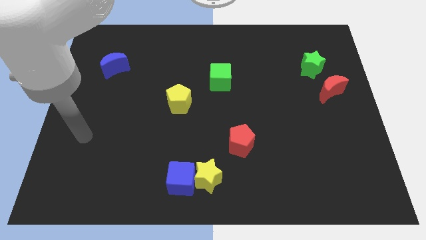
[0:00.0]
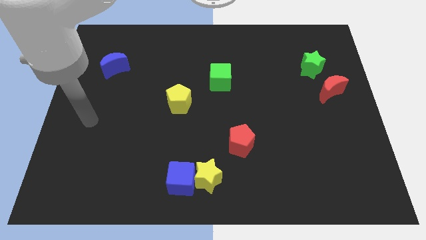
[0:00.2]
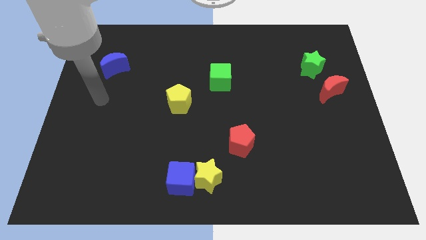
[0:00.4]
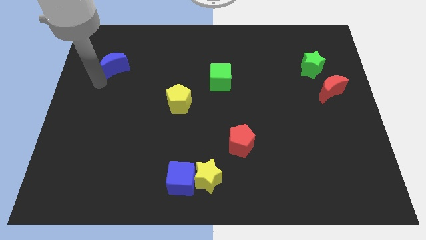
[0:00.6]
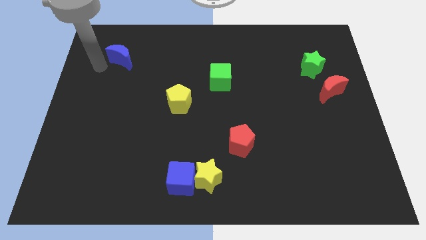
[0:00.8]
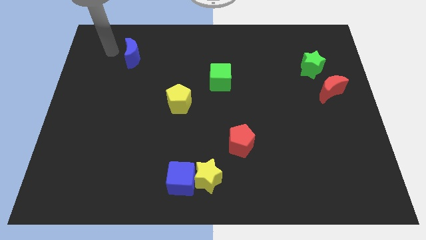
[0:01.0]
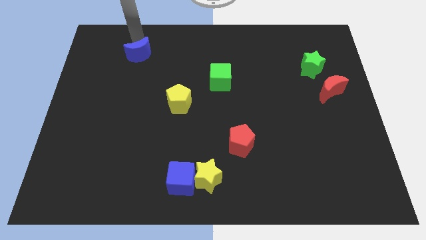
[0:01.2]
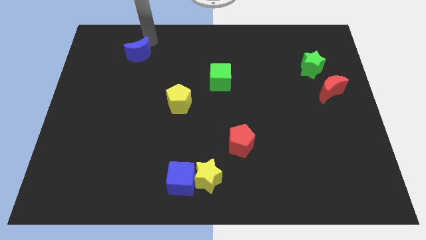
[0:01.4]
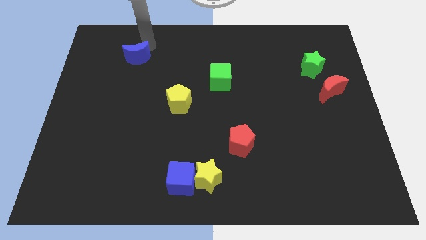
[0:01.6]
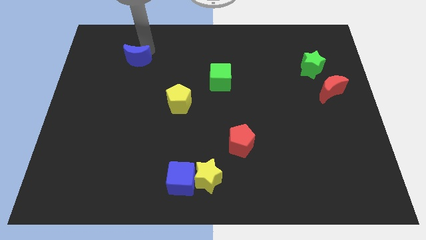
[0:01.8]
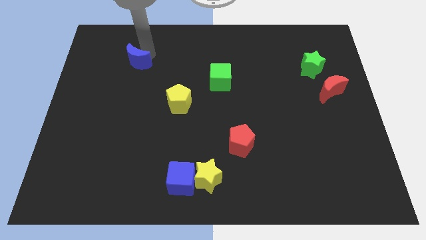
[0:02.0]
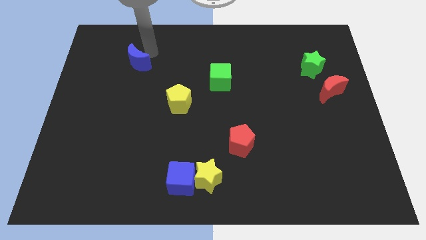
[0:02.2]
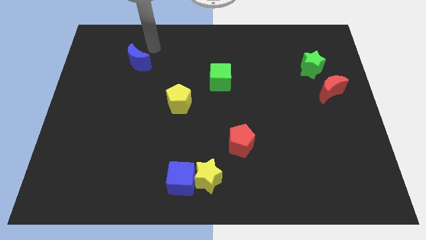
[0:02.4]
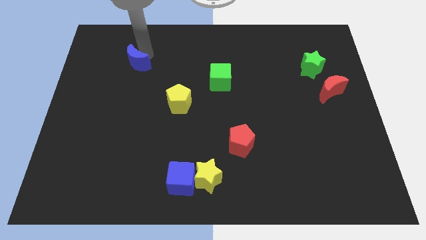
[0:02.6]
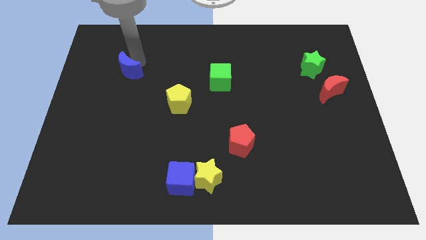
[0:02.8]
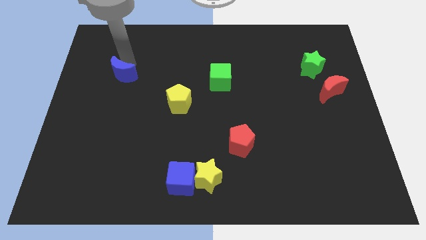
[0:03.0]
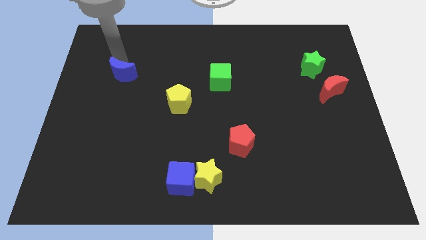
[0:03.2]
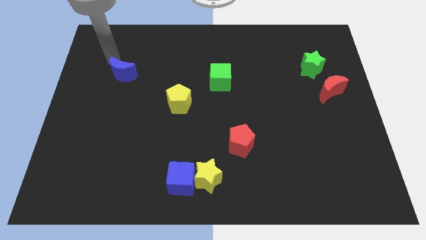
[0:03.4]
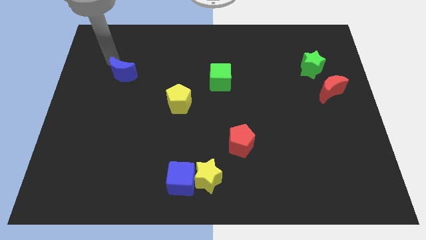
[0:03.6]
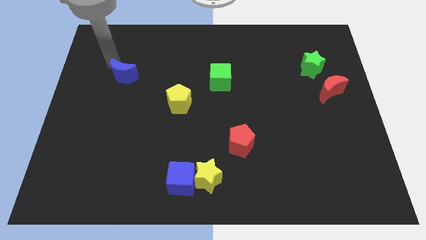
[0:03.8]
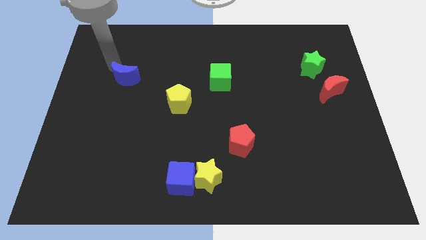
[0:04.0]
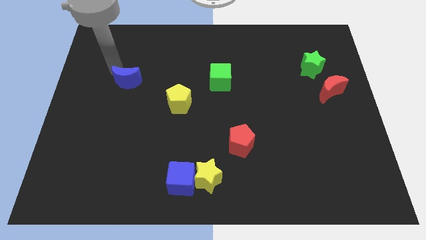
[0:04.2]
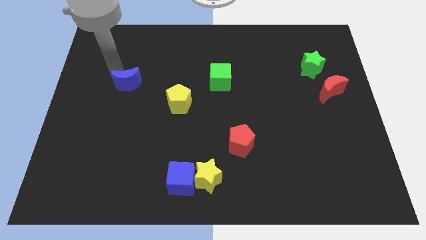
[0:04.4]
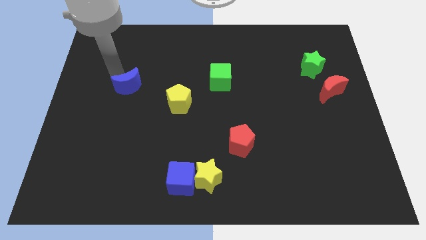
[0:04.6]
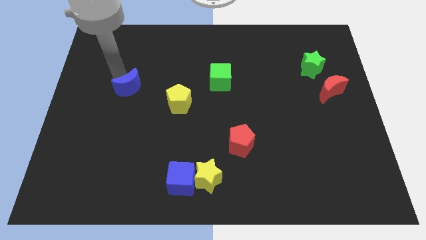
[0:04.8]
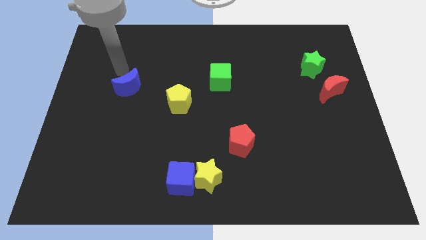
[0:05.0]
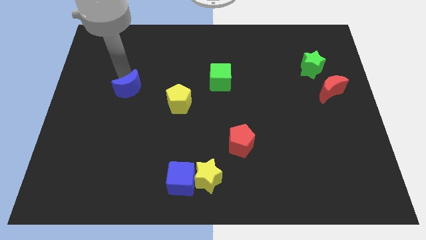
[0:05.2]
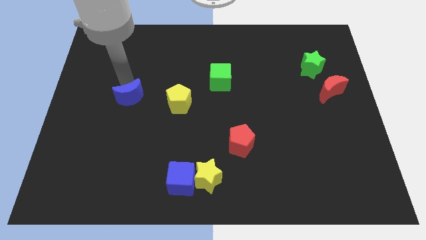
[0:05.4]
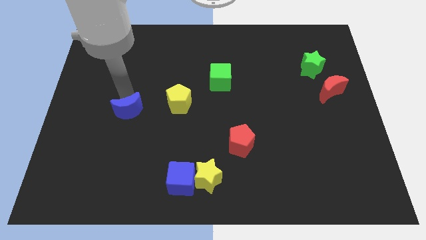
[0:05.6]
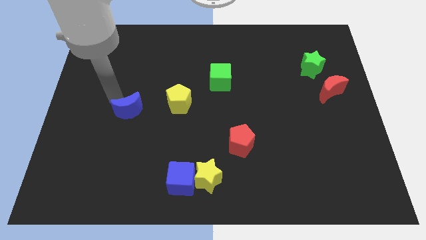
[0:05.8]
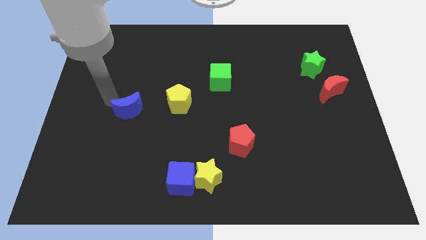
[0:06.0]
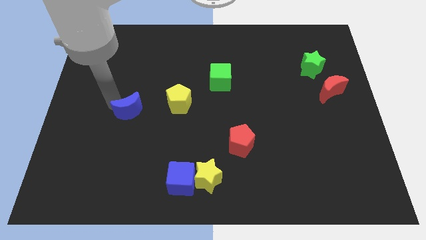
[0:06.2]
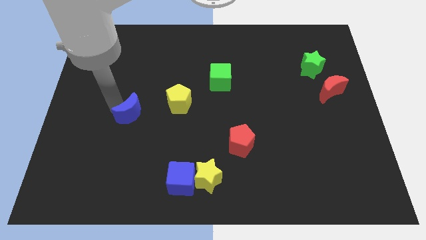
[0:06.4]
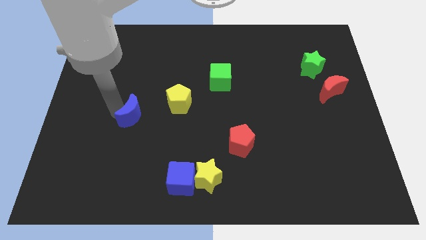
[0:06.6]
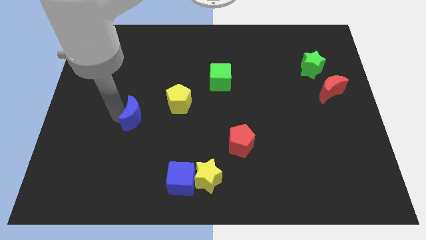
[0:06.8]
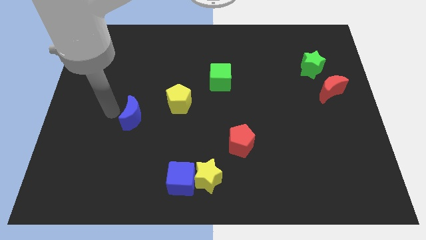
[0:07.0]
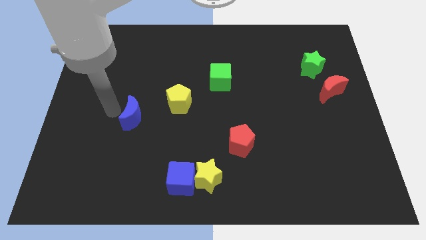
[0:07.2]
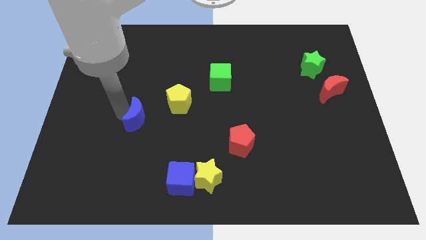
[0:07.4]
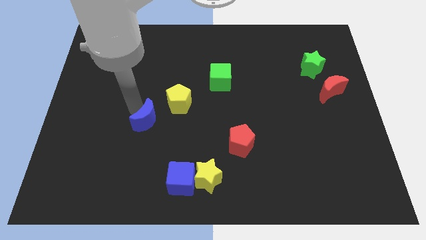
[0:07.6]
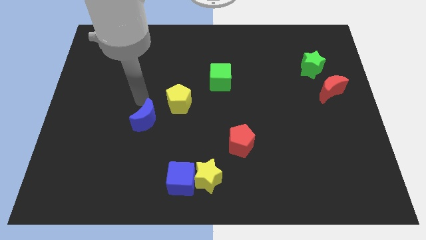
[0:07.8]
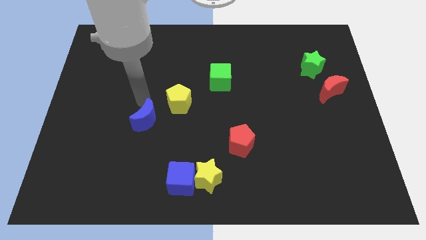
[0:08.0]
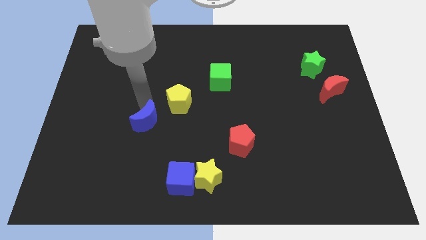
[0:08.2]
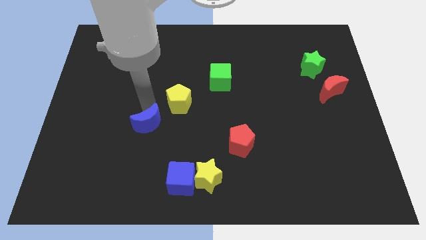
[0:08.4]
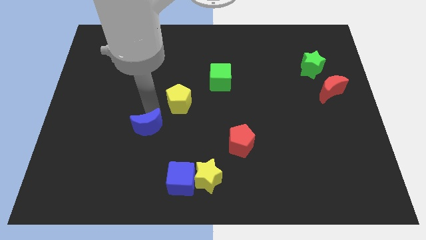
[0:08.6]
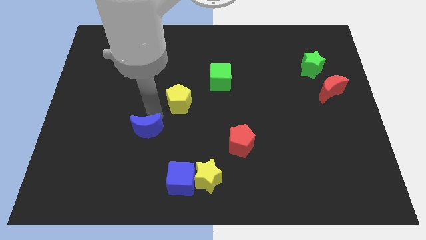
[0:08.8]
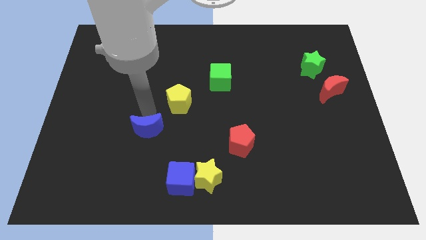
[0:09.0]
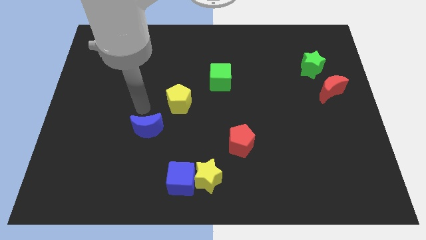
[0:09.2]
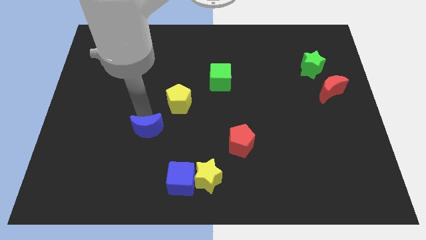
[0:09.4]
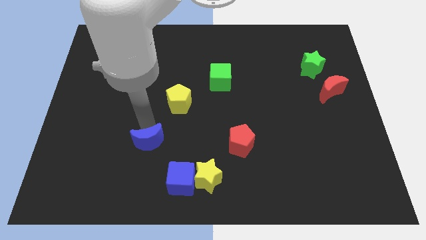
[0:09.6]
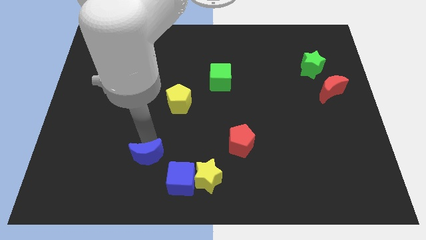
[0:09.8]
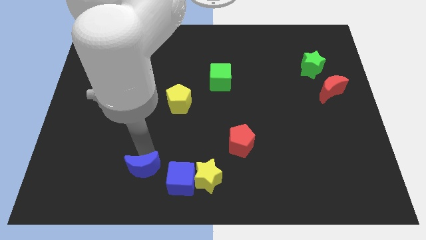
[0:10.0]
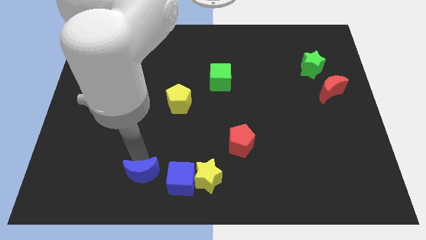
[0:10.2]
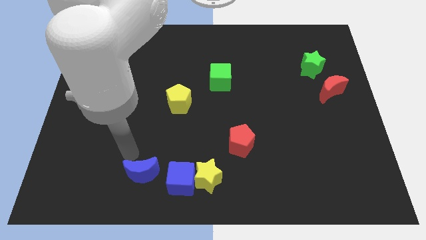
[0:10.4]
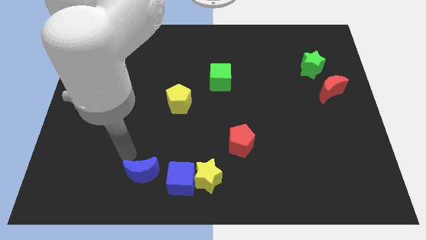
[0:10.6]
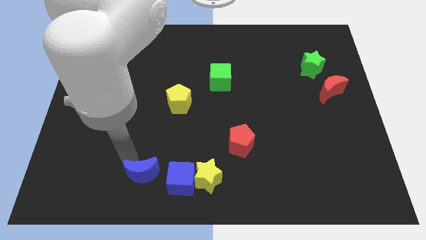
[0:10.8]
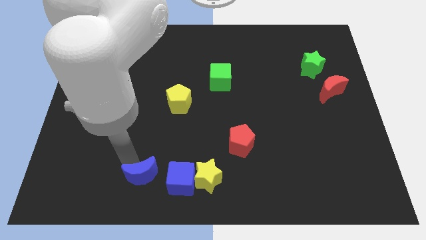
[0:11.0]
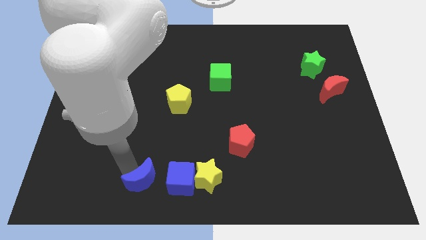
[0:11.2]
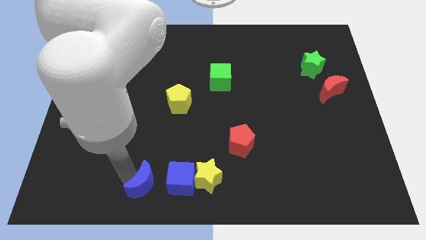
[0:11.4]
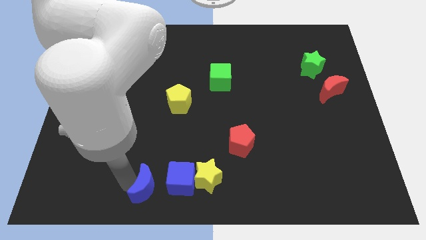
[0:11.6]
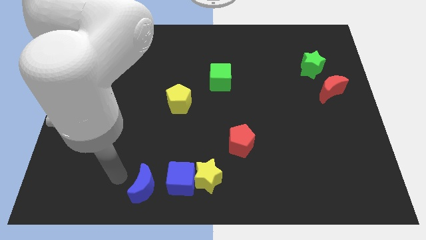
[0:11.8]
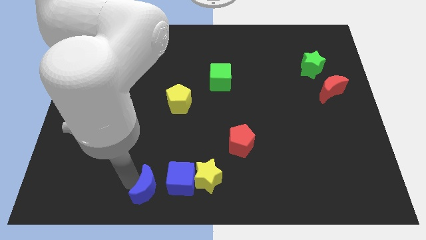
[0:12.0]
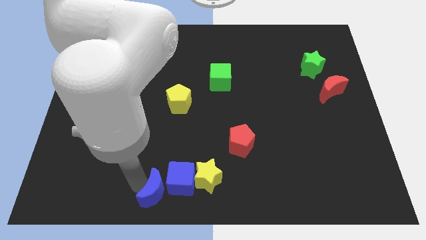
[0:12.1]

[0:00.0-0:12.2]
put the blue moon to the bottom
